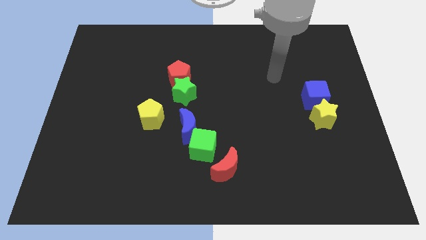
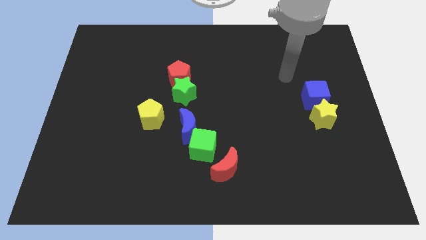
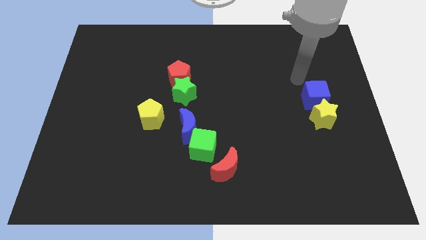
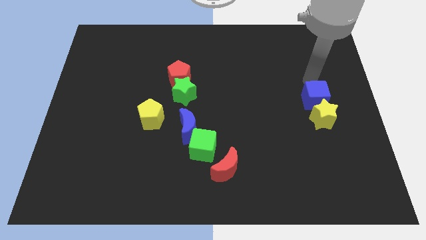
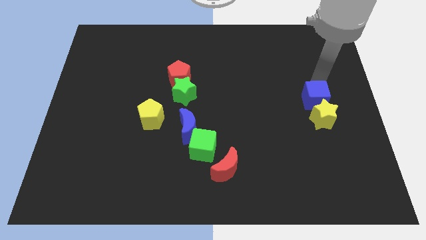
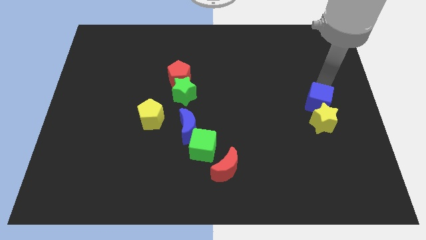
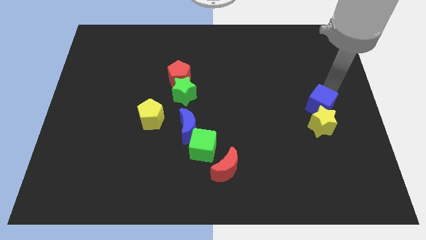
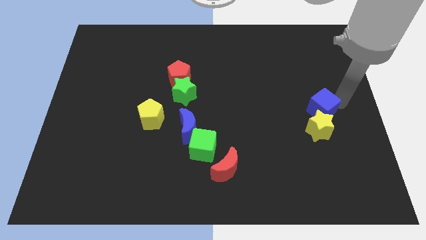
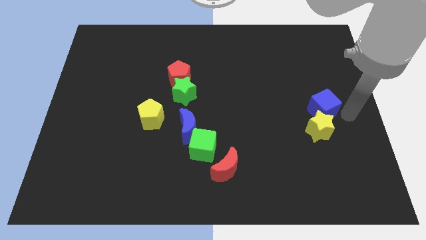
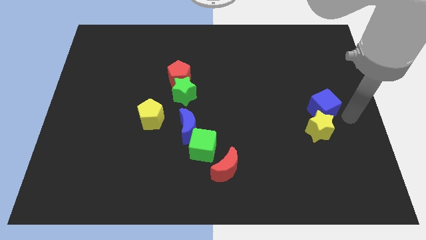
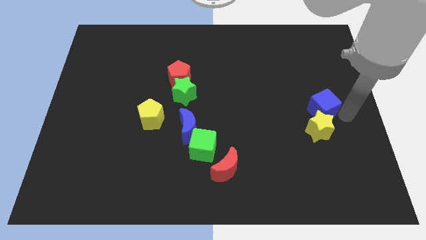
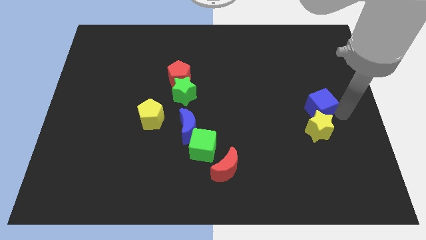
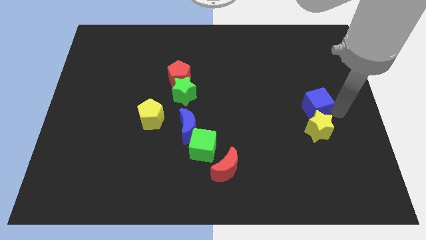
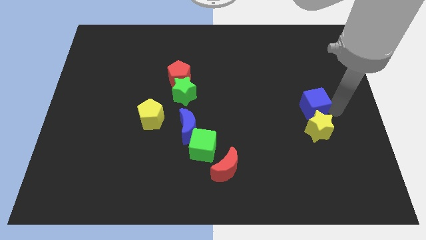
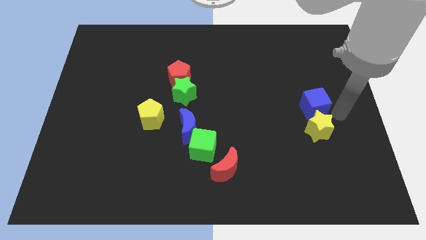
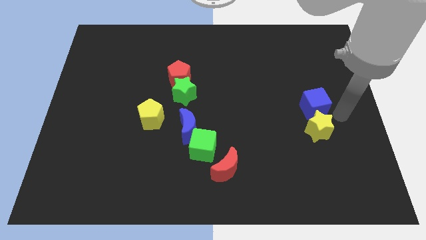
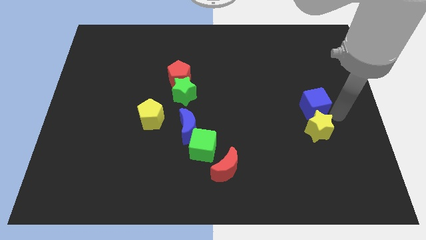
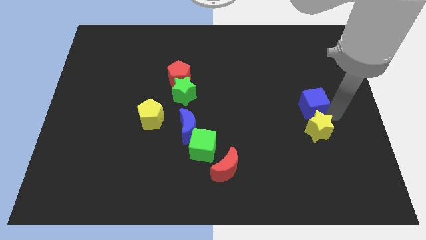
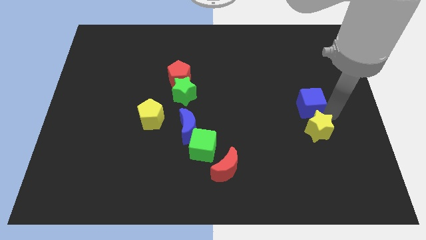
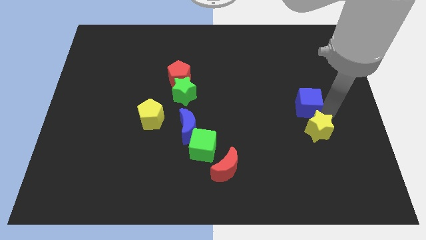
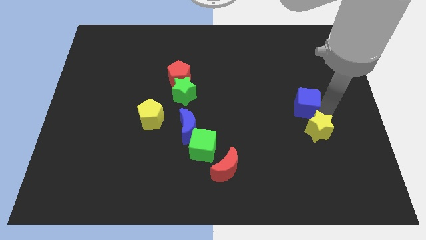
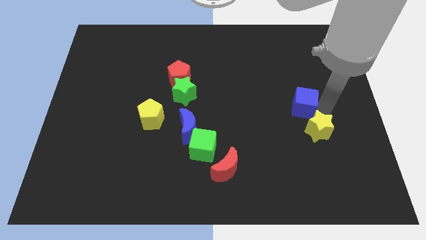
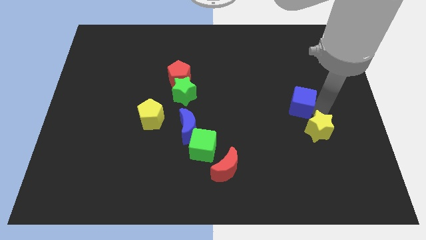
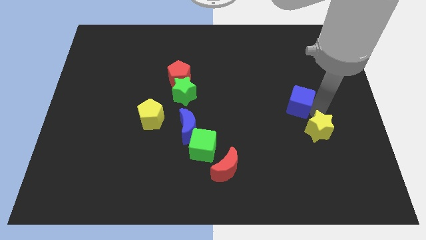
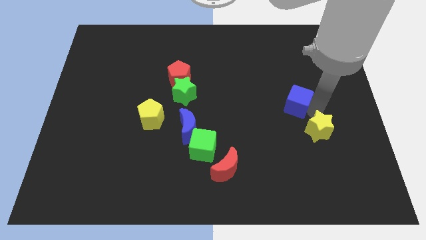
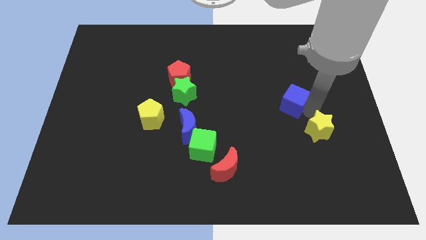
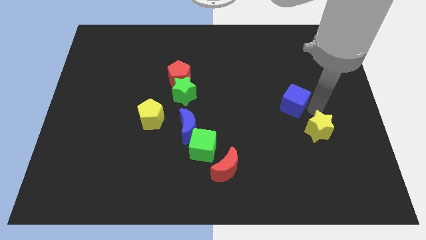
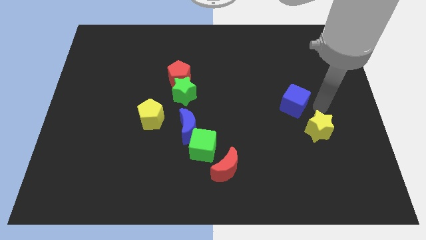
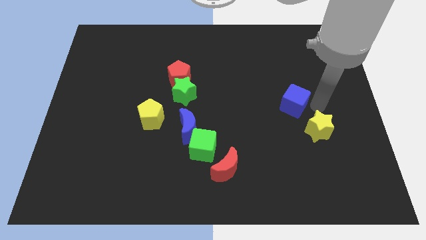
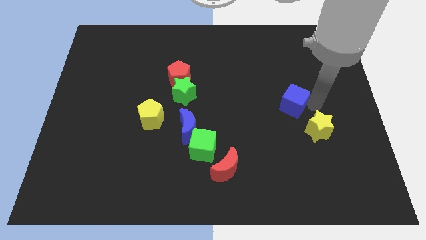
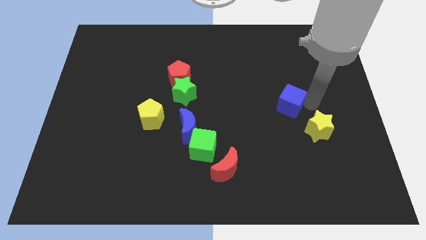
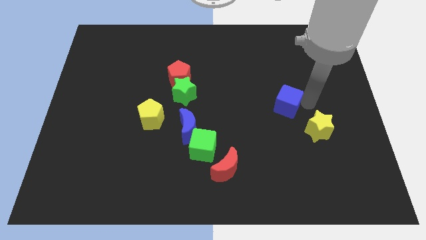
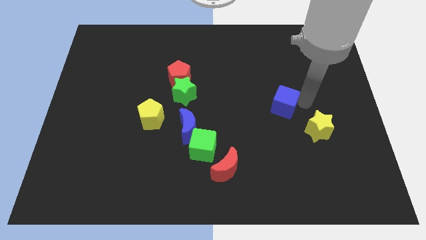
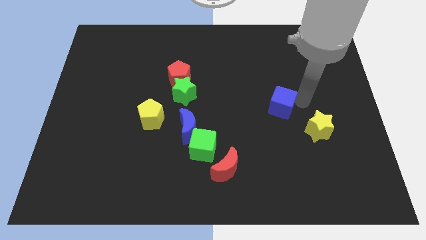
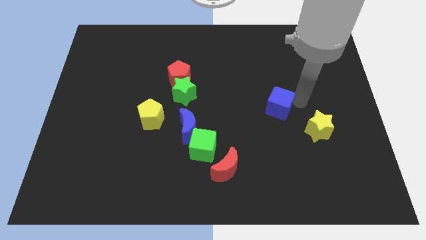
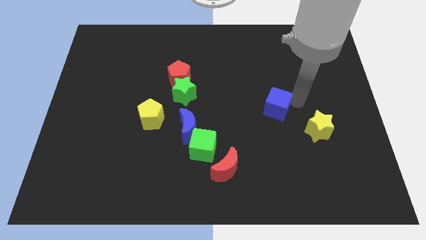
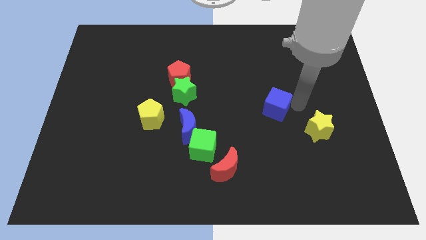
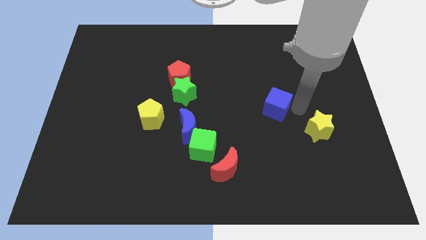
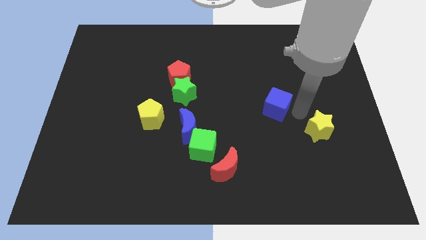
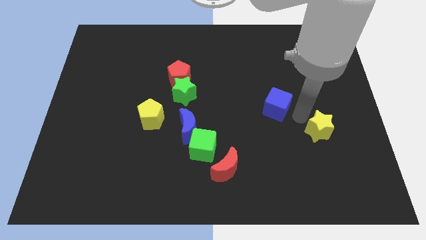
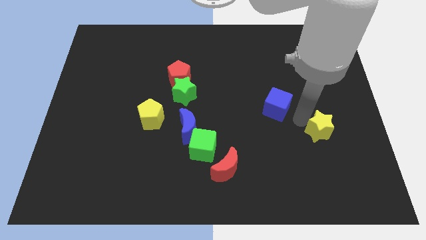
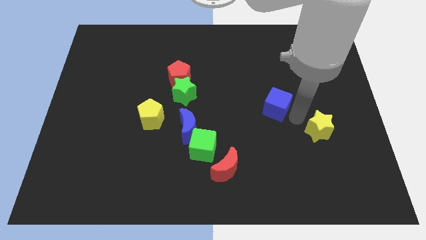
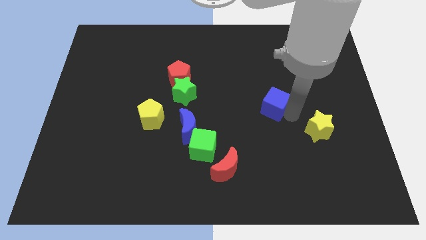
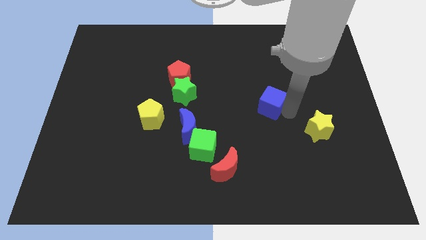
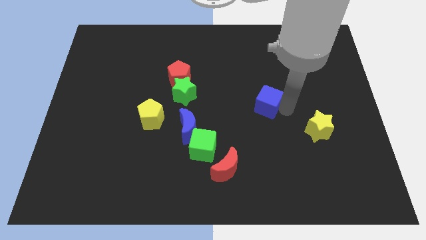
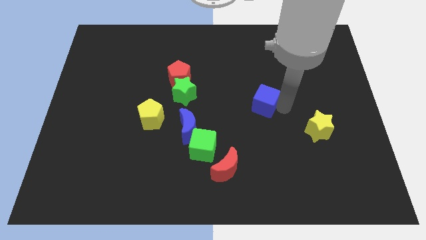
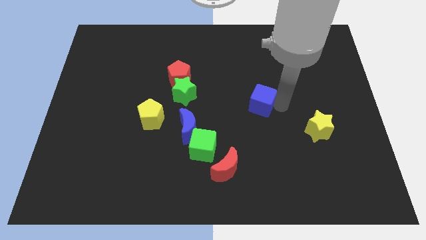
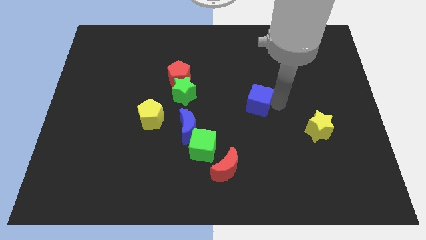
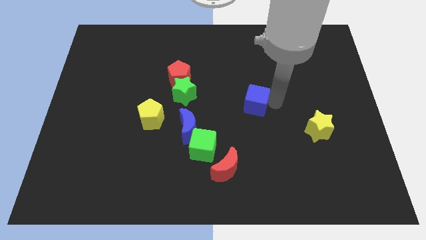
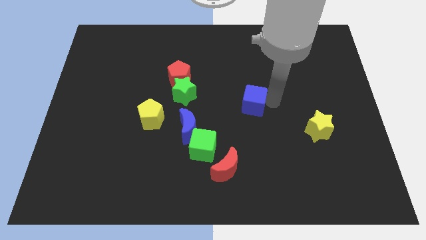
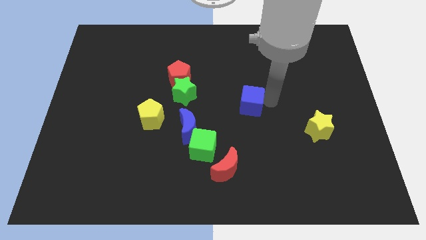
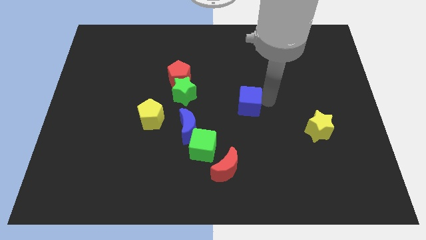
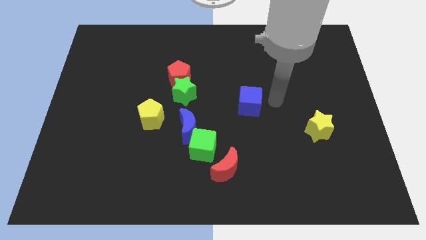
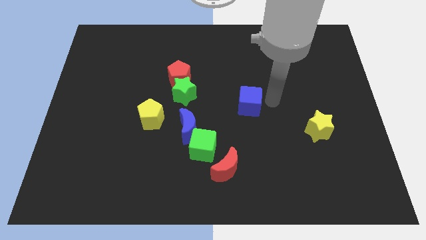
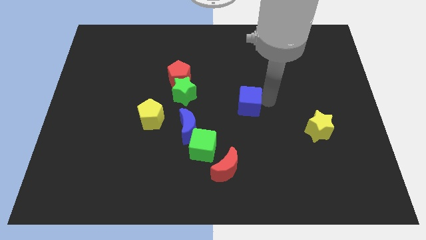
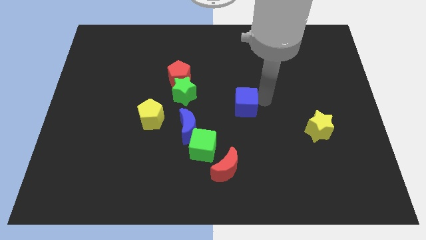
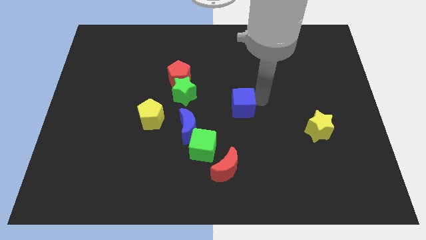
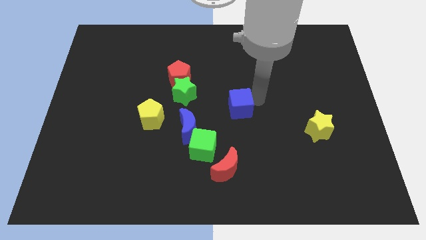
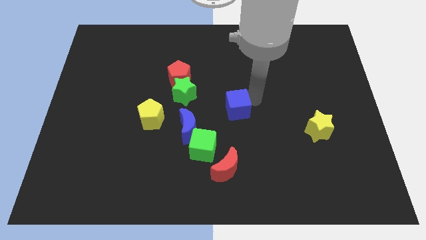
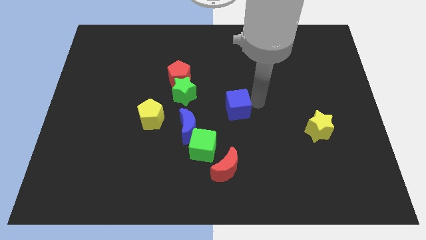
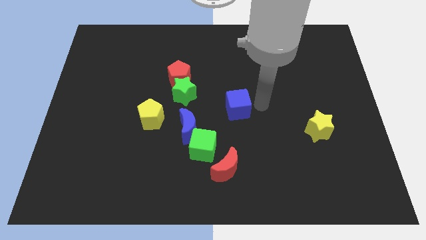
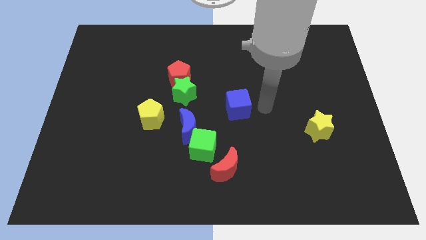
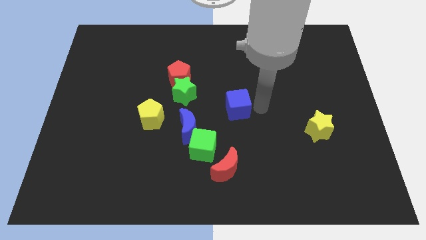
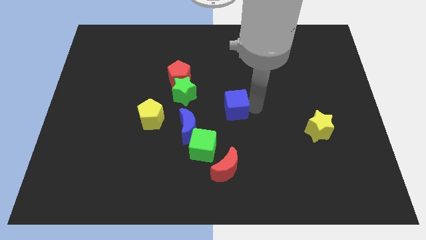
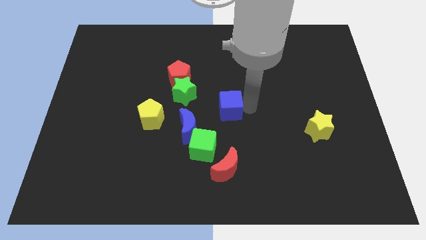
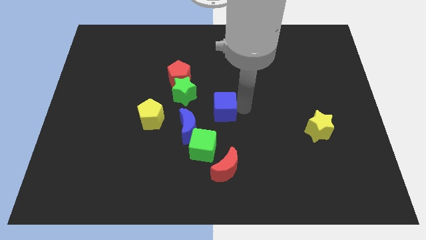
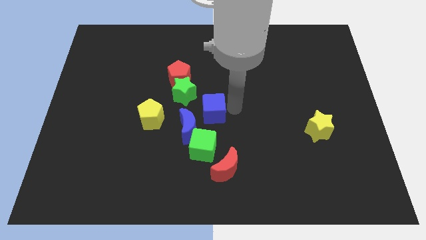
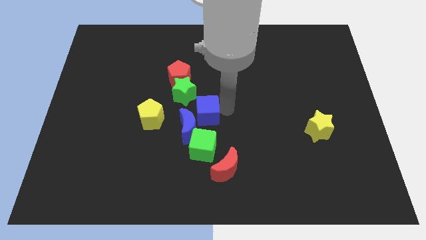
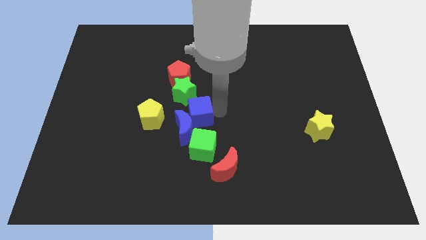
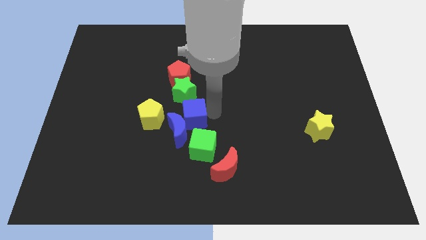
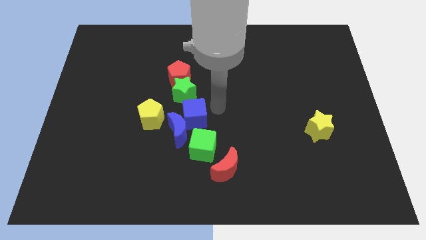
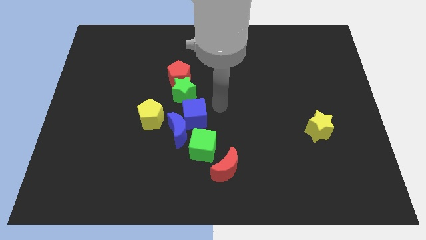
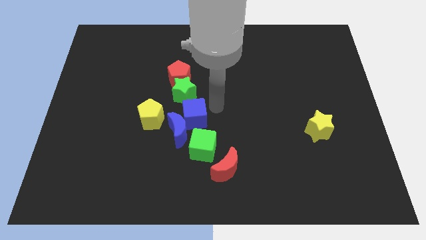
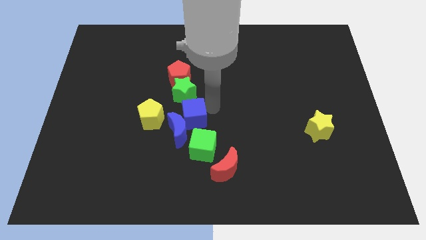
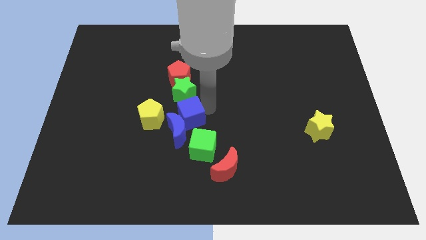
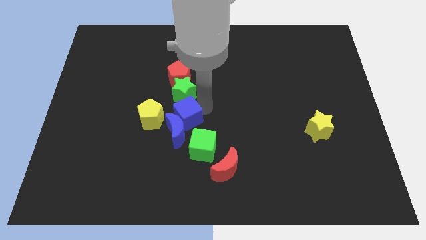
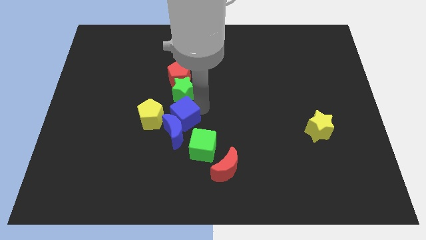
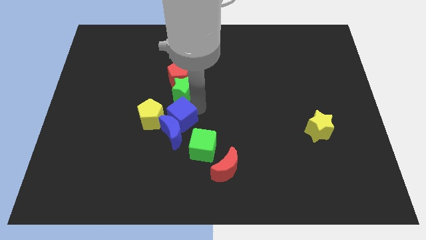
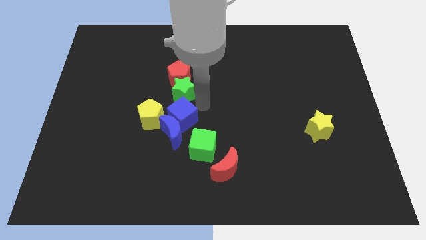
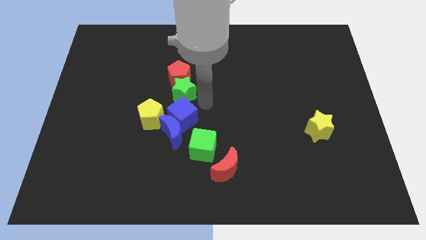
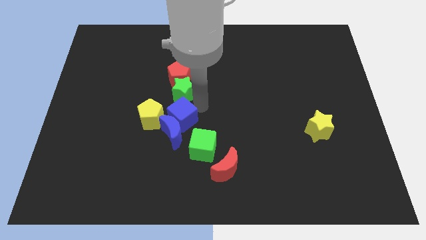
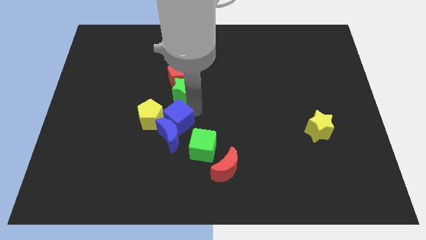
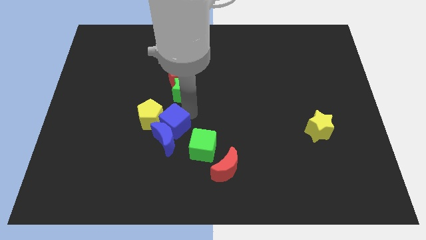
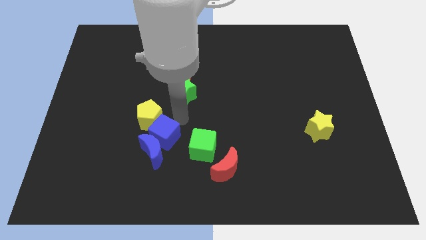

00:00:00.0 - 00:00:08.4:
put the blue cube below the yellow pentagon
